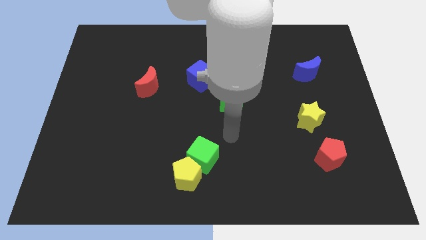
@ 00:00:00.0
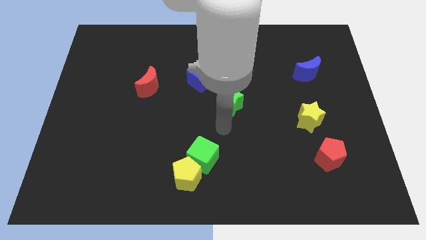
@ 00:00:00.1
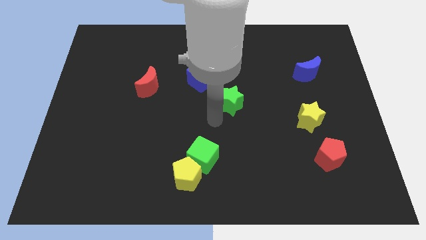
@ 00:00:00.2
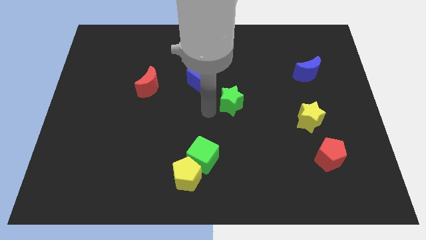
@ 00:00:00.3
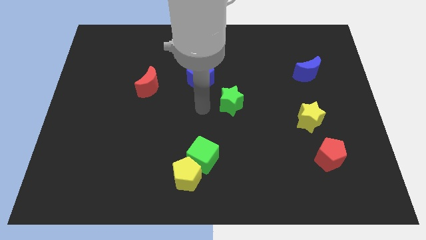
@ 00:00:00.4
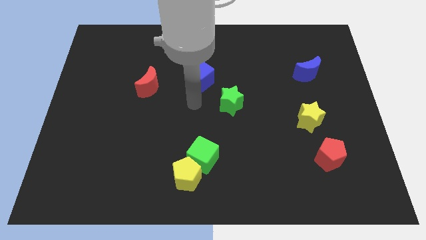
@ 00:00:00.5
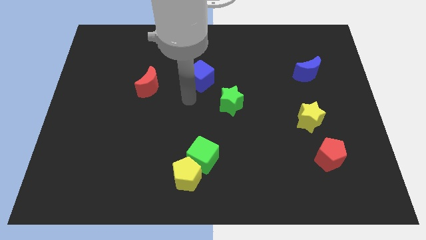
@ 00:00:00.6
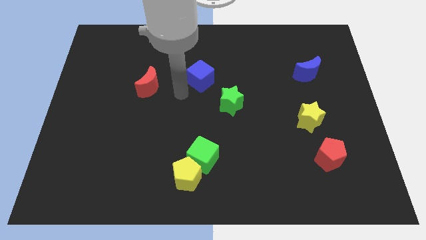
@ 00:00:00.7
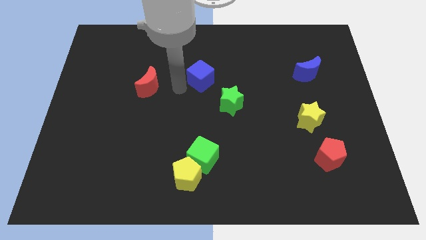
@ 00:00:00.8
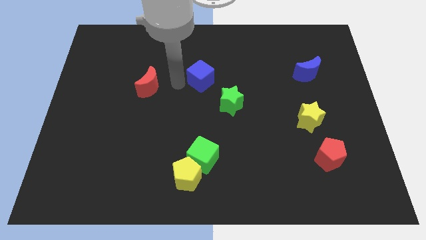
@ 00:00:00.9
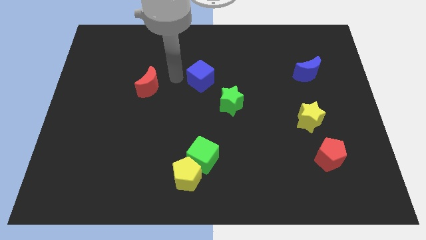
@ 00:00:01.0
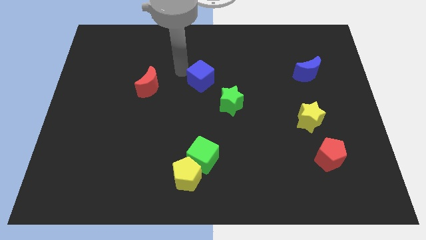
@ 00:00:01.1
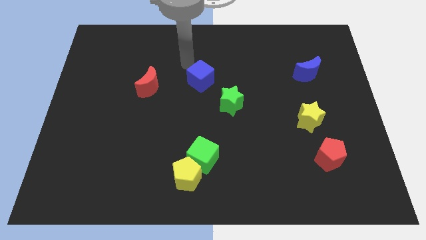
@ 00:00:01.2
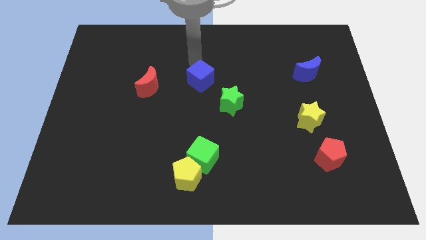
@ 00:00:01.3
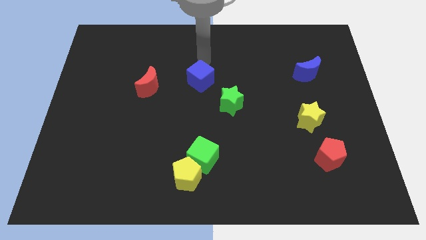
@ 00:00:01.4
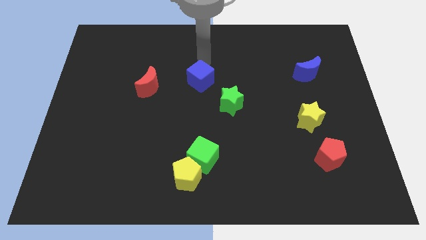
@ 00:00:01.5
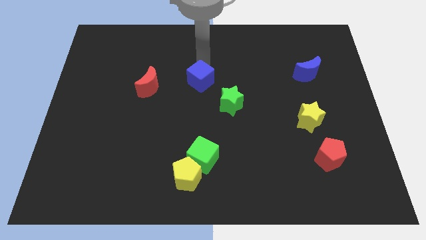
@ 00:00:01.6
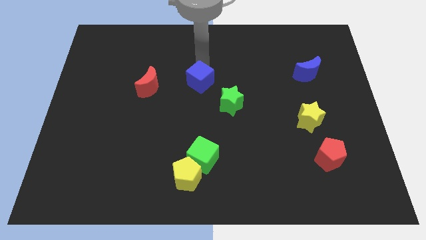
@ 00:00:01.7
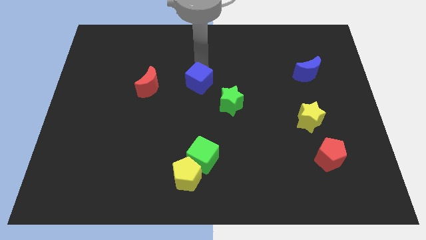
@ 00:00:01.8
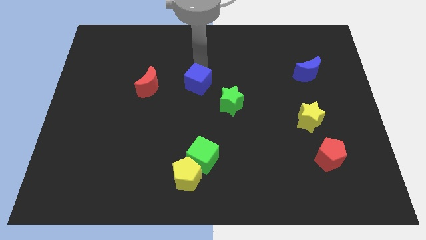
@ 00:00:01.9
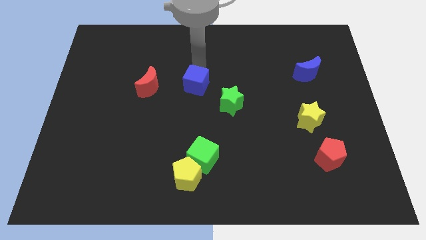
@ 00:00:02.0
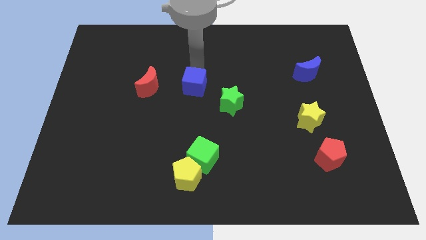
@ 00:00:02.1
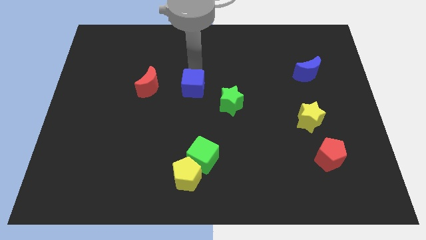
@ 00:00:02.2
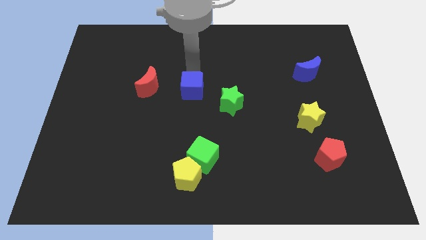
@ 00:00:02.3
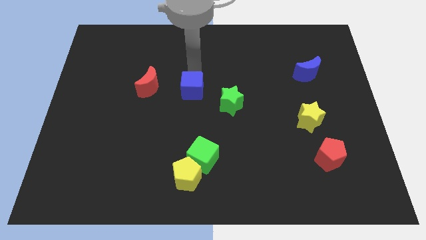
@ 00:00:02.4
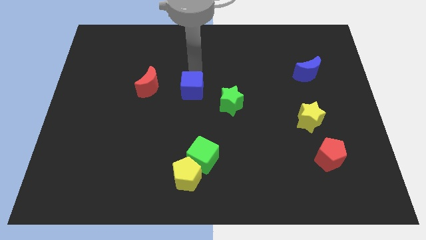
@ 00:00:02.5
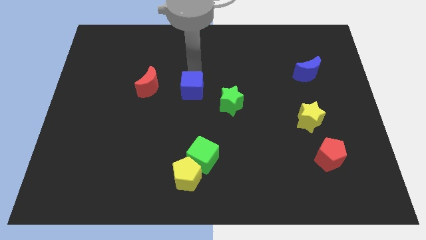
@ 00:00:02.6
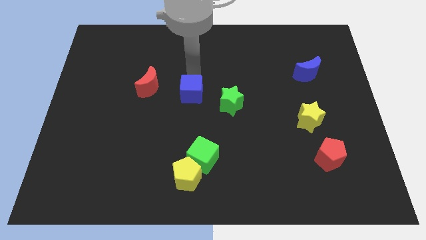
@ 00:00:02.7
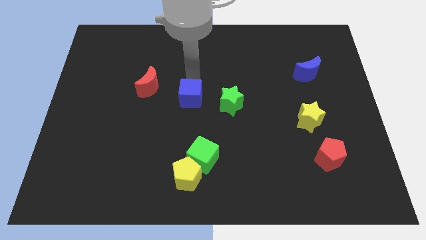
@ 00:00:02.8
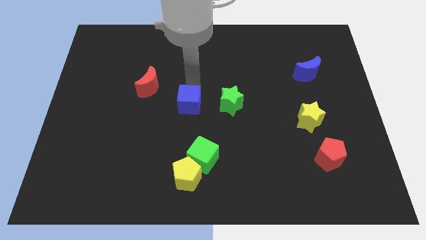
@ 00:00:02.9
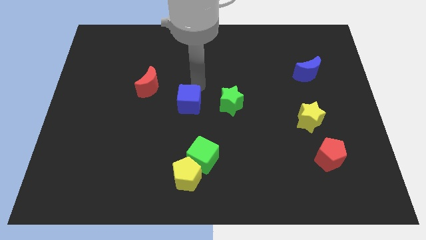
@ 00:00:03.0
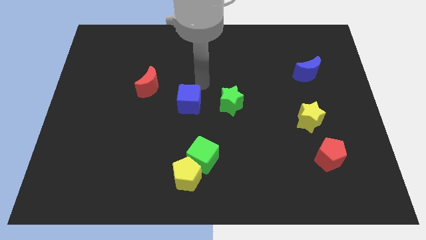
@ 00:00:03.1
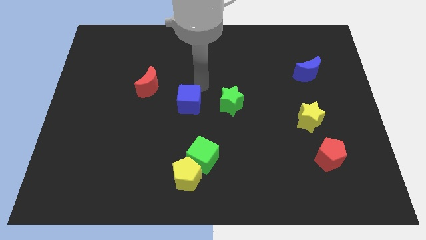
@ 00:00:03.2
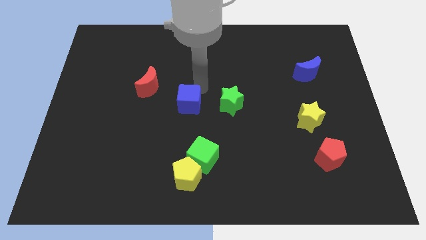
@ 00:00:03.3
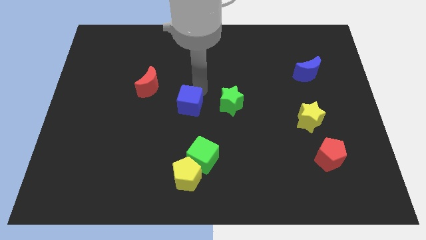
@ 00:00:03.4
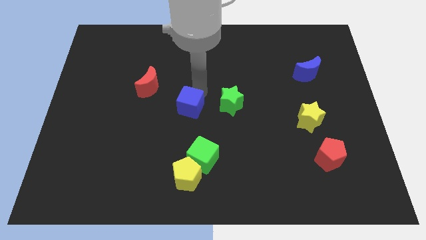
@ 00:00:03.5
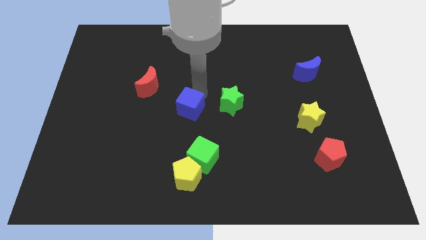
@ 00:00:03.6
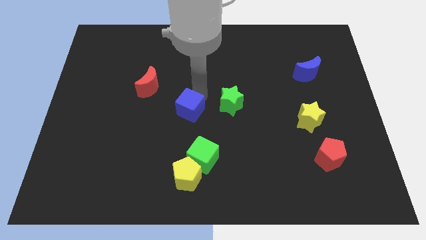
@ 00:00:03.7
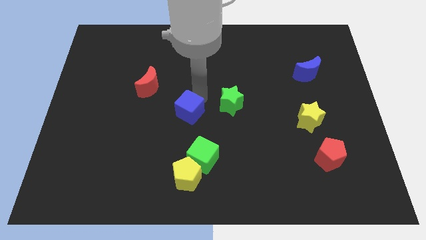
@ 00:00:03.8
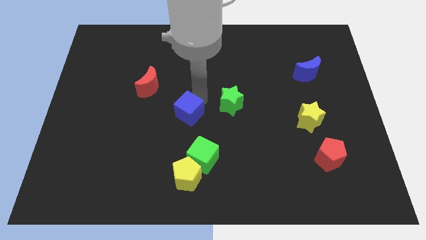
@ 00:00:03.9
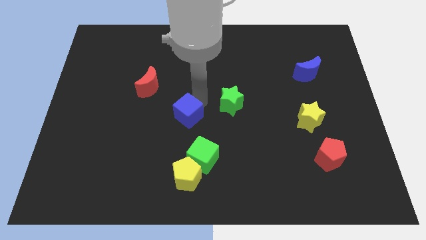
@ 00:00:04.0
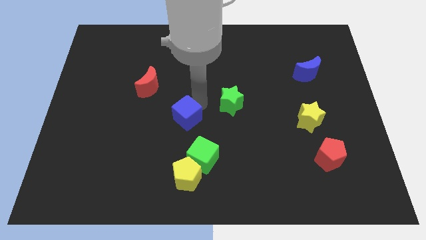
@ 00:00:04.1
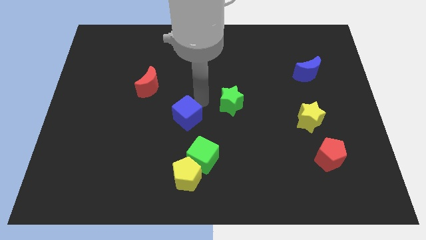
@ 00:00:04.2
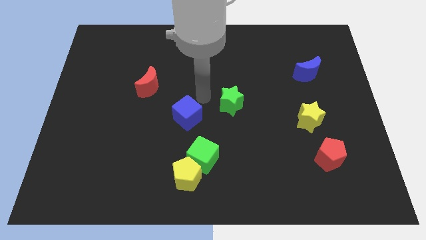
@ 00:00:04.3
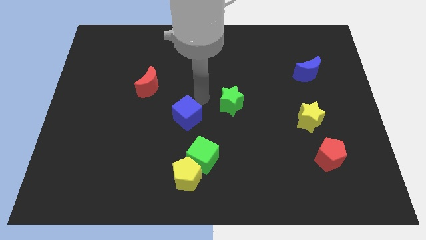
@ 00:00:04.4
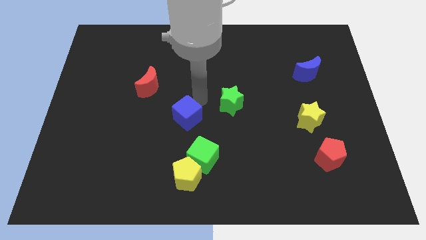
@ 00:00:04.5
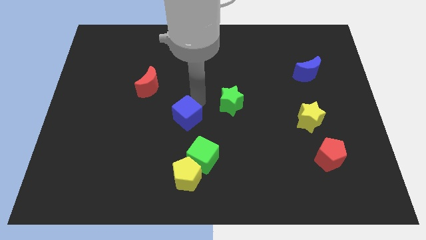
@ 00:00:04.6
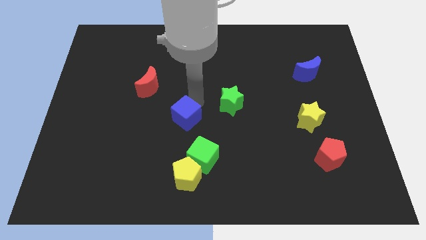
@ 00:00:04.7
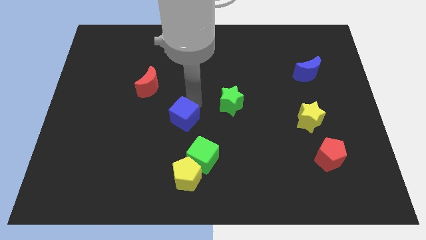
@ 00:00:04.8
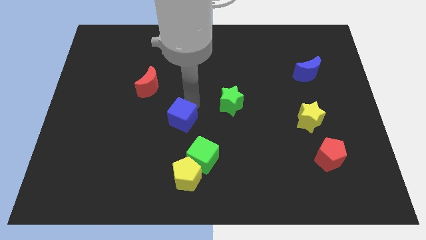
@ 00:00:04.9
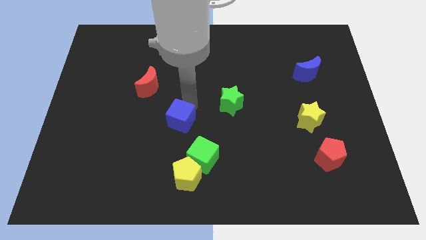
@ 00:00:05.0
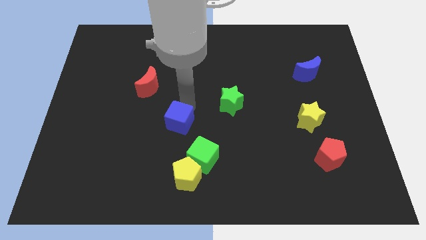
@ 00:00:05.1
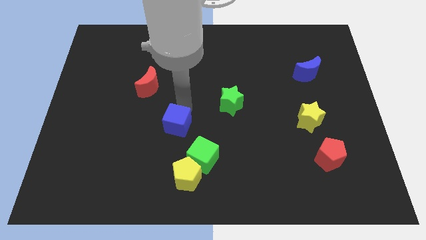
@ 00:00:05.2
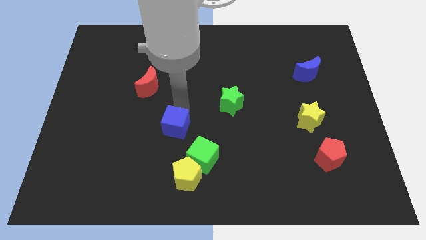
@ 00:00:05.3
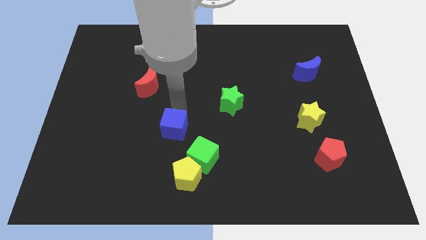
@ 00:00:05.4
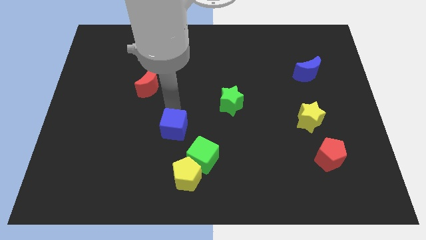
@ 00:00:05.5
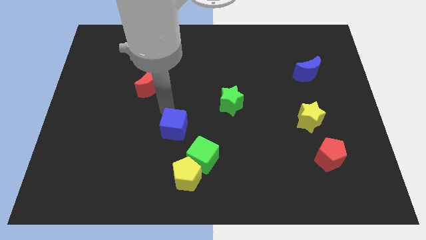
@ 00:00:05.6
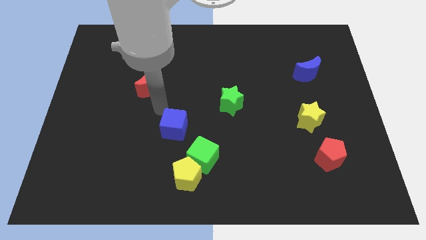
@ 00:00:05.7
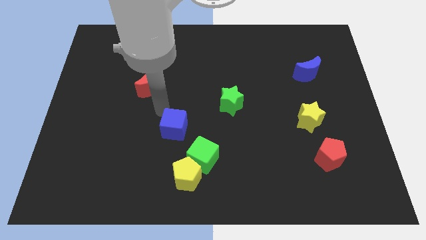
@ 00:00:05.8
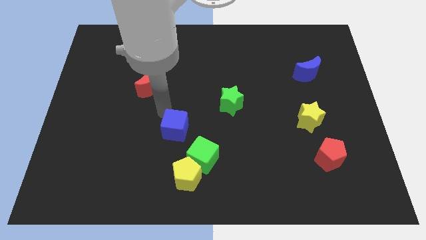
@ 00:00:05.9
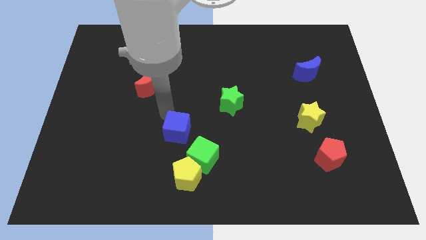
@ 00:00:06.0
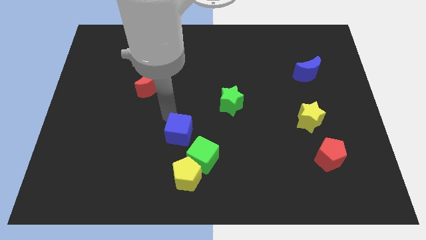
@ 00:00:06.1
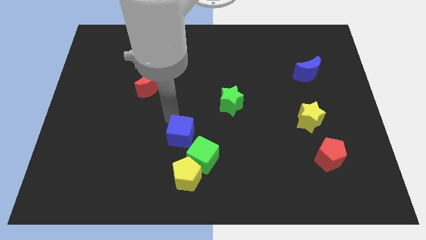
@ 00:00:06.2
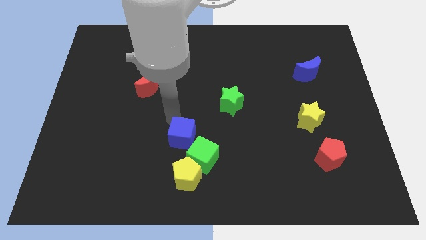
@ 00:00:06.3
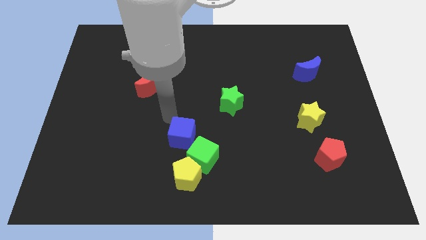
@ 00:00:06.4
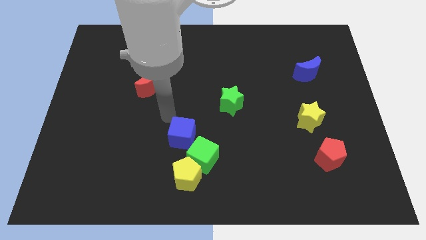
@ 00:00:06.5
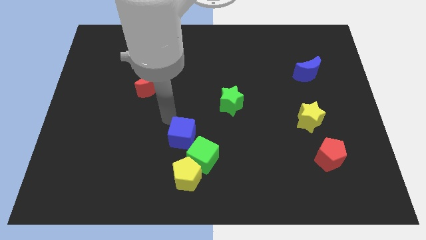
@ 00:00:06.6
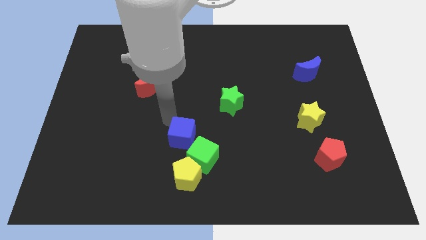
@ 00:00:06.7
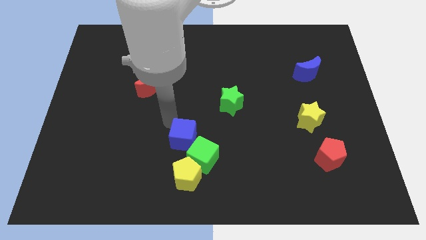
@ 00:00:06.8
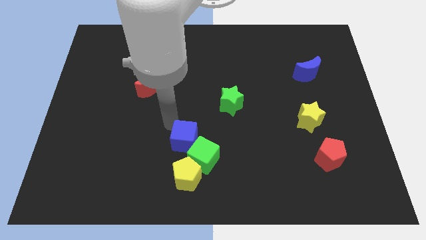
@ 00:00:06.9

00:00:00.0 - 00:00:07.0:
put the blue cube close to the green cube
